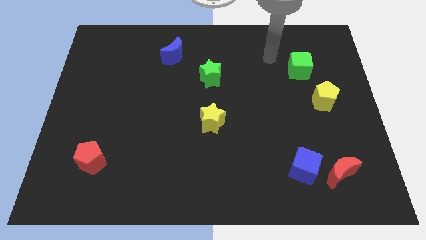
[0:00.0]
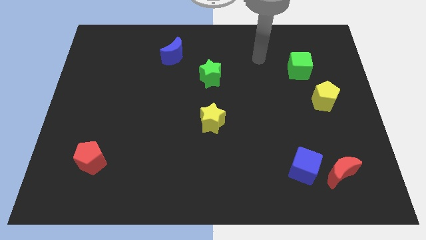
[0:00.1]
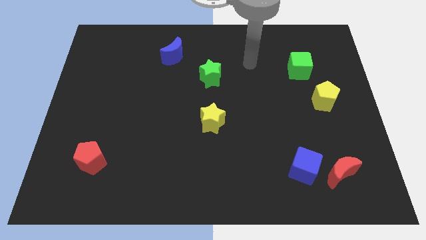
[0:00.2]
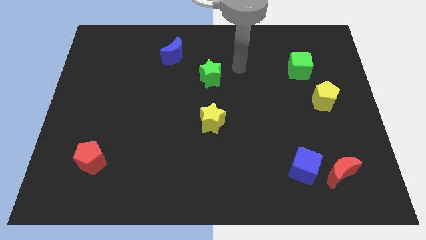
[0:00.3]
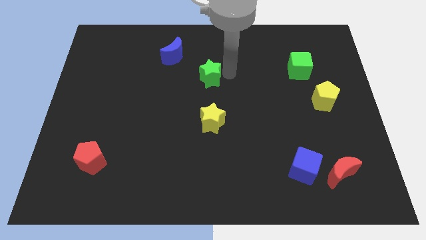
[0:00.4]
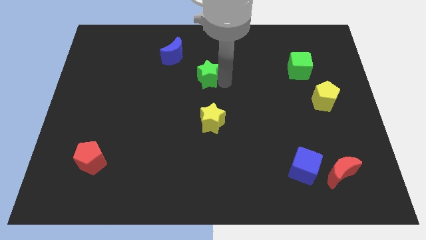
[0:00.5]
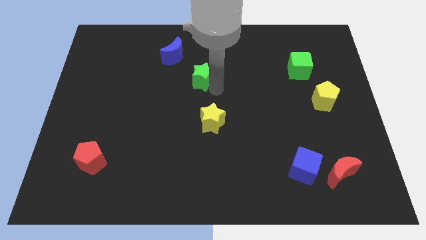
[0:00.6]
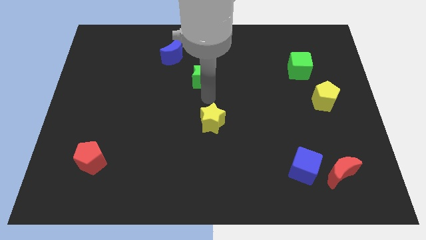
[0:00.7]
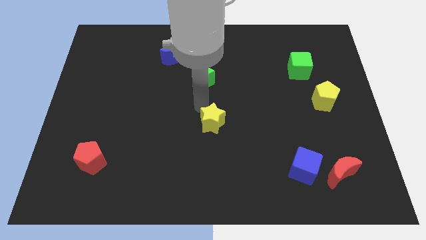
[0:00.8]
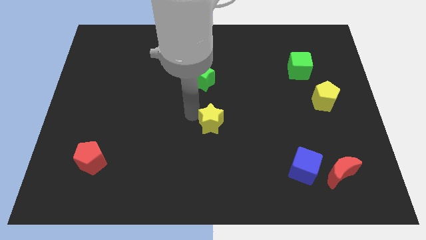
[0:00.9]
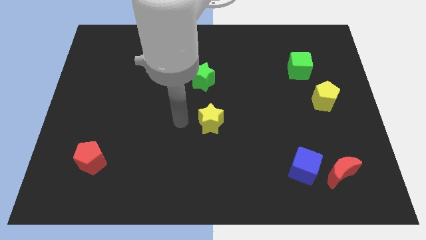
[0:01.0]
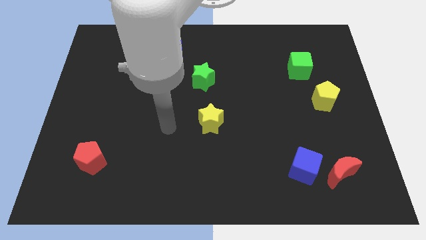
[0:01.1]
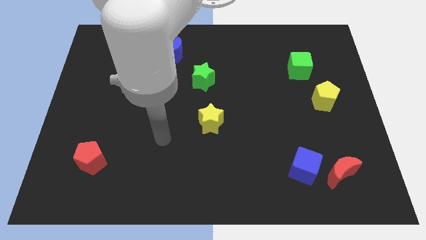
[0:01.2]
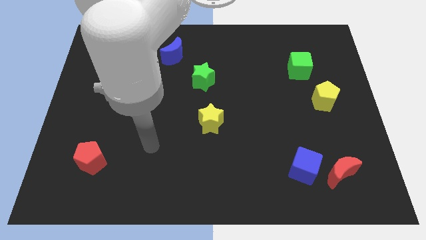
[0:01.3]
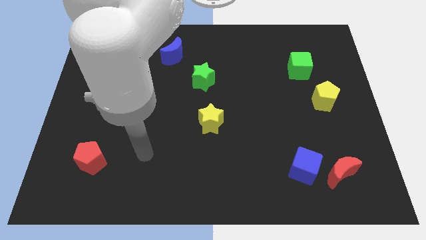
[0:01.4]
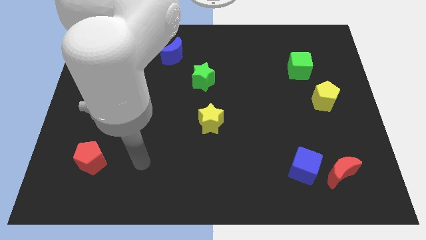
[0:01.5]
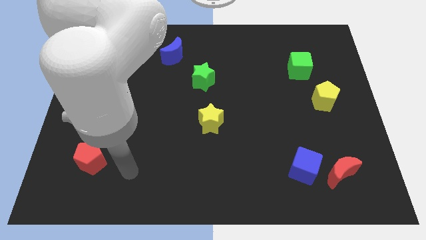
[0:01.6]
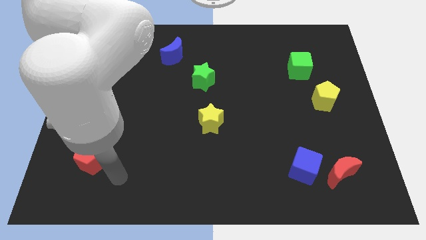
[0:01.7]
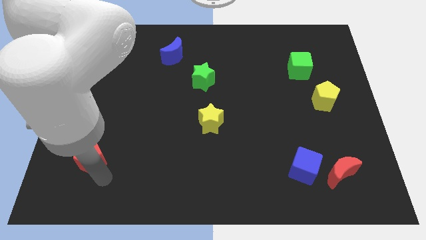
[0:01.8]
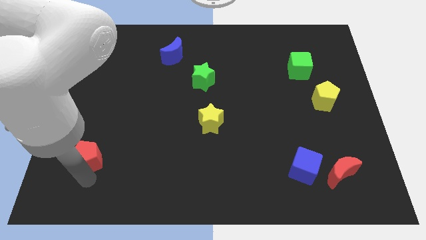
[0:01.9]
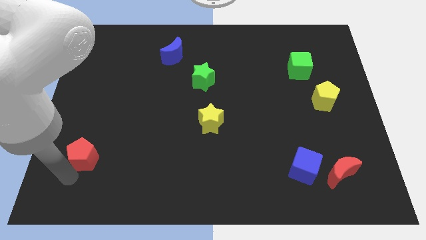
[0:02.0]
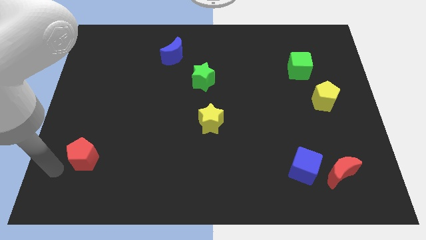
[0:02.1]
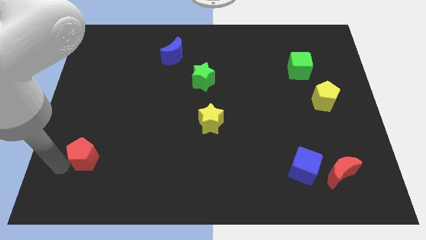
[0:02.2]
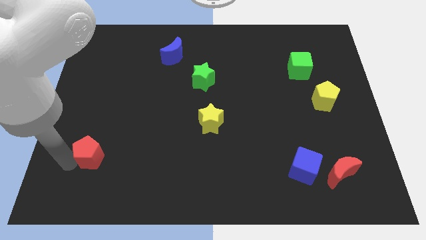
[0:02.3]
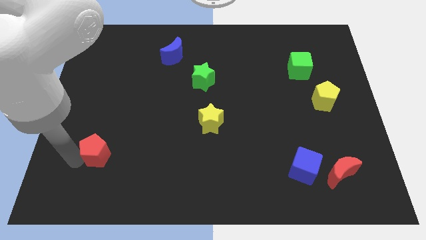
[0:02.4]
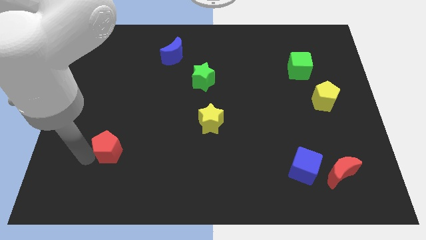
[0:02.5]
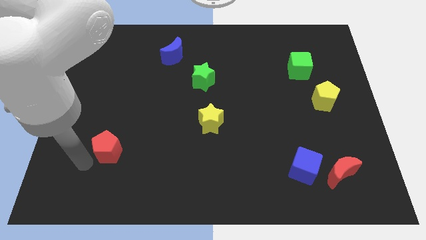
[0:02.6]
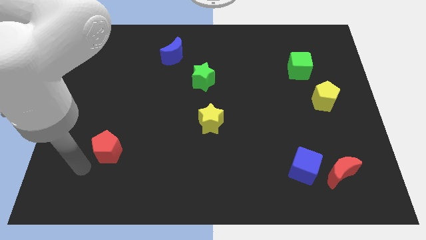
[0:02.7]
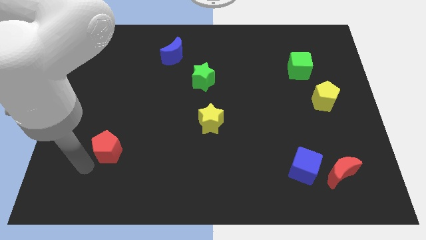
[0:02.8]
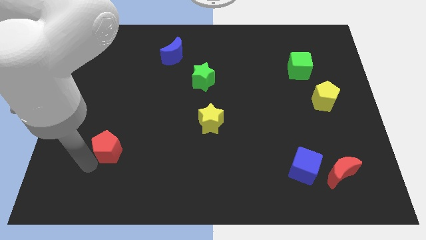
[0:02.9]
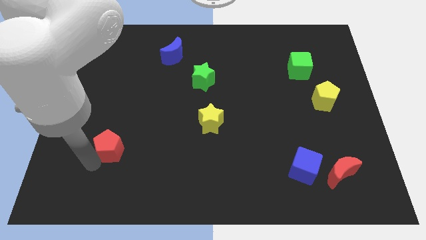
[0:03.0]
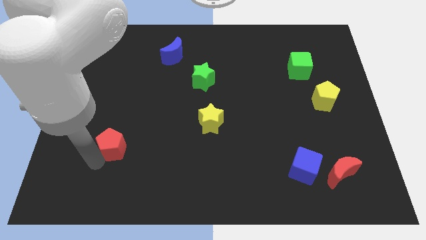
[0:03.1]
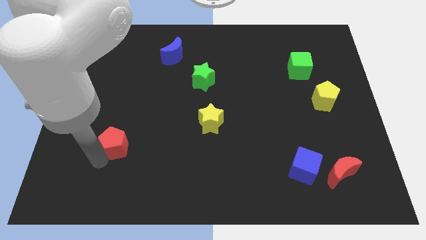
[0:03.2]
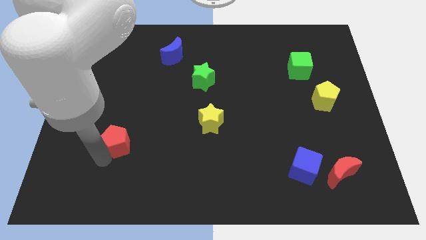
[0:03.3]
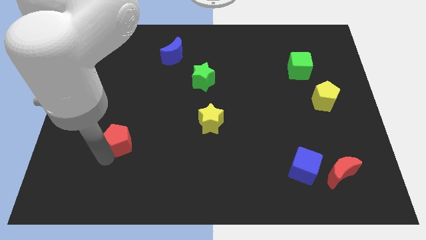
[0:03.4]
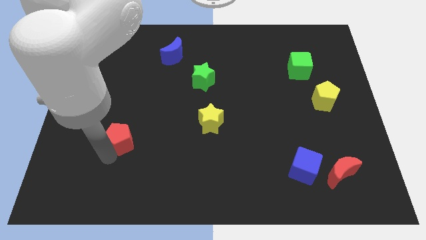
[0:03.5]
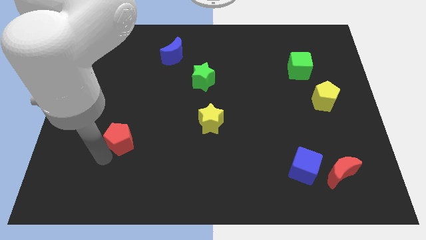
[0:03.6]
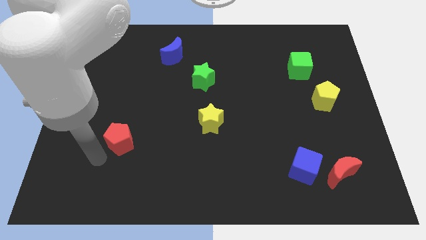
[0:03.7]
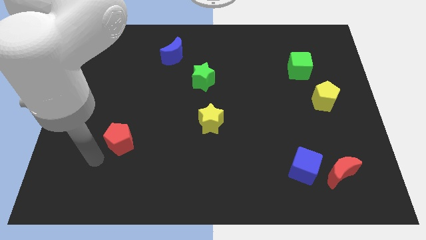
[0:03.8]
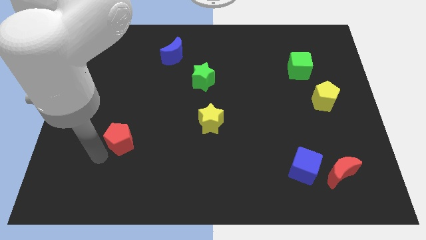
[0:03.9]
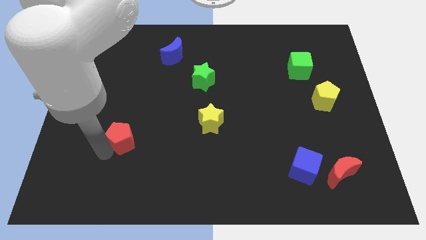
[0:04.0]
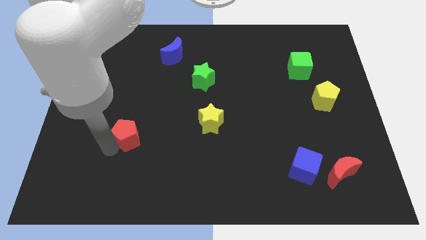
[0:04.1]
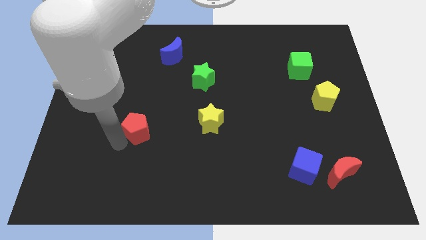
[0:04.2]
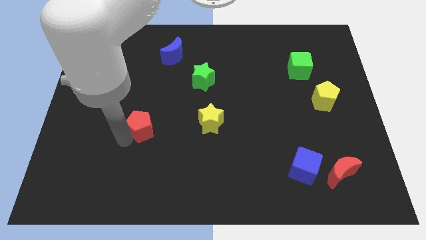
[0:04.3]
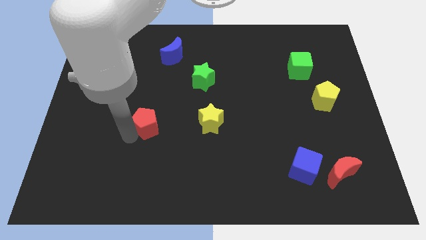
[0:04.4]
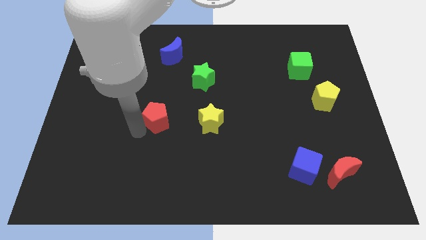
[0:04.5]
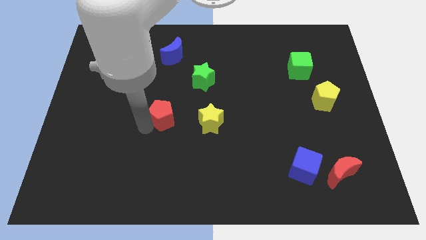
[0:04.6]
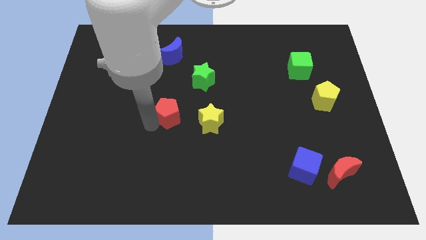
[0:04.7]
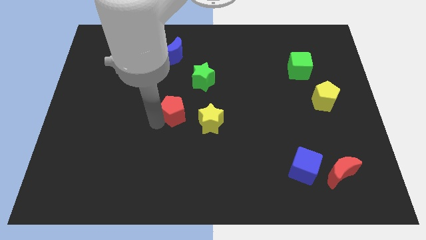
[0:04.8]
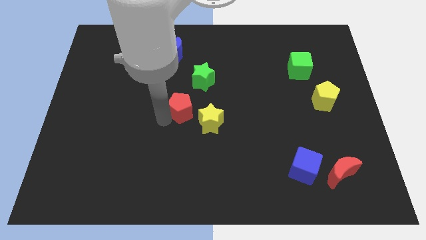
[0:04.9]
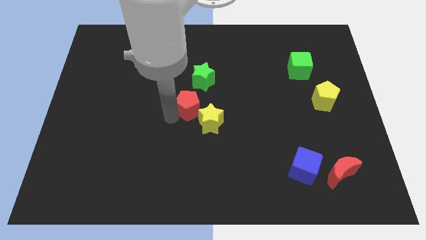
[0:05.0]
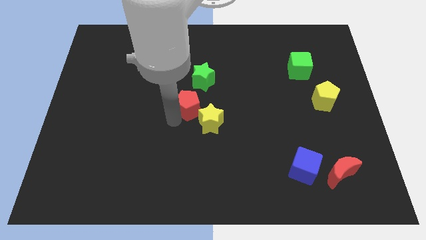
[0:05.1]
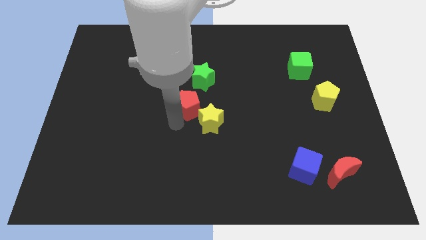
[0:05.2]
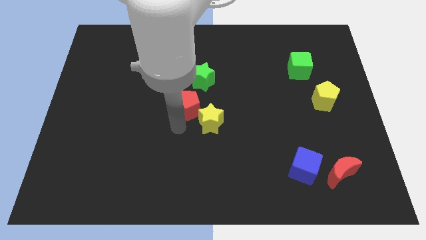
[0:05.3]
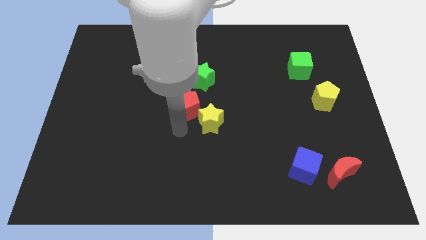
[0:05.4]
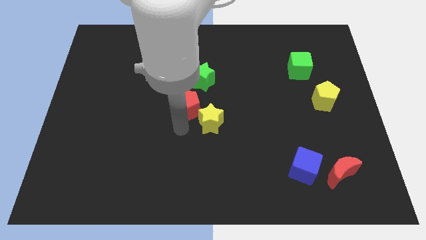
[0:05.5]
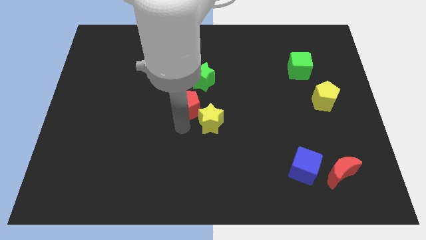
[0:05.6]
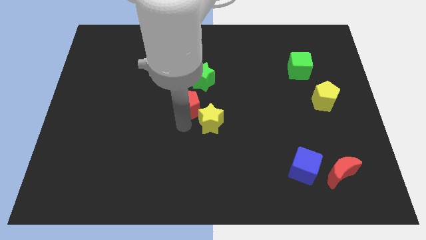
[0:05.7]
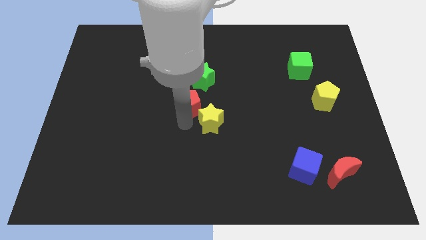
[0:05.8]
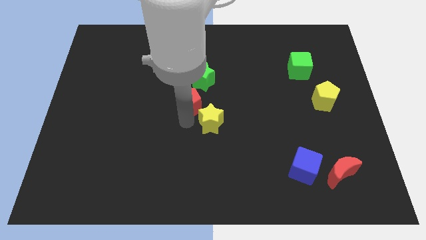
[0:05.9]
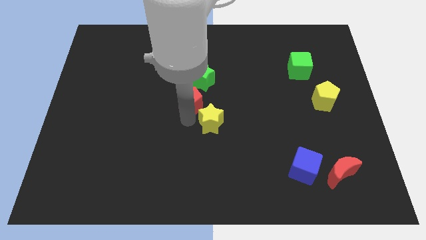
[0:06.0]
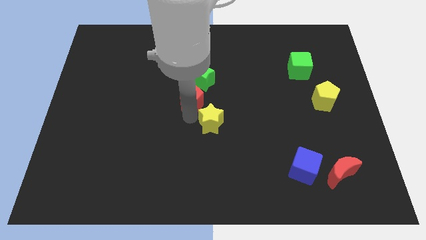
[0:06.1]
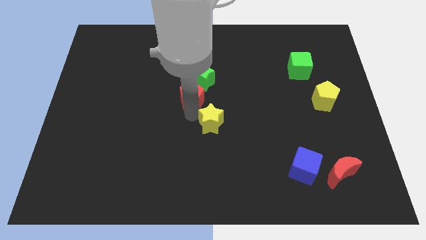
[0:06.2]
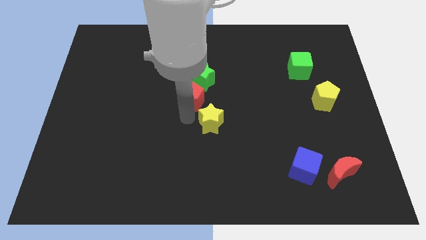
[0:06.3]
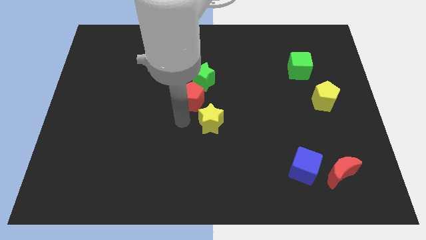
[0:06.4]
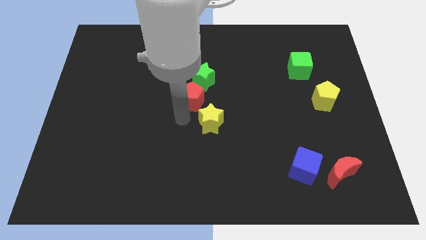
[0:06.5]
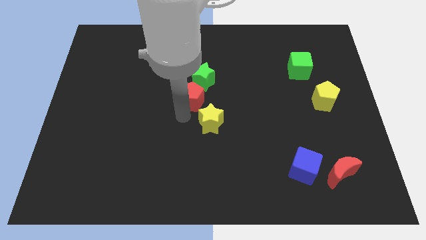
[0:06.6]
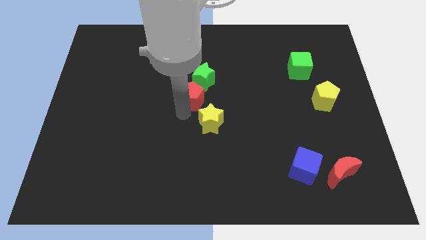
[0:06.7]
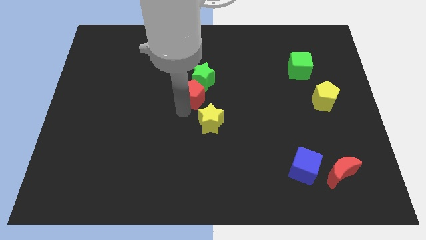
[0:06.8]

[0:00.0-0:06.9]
move the red pentagon to the green star
